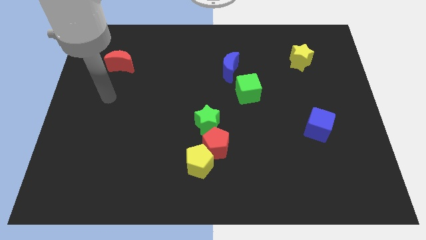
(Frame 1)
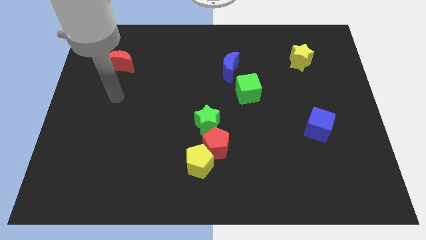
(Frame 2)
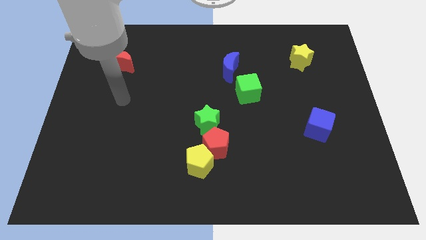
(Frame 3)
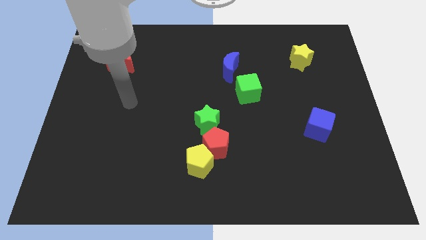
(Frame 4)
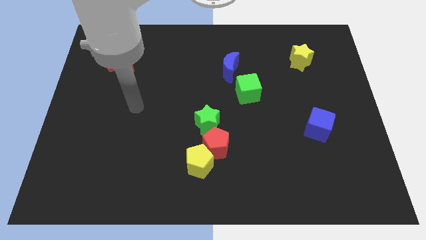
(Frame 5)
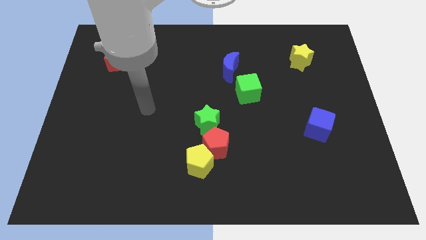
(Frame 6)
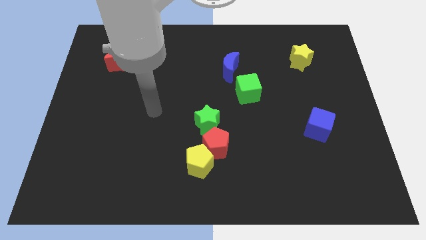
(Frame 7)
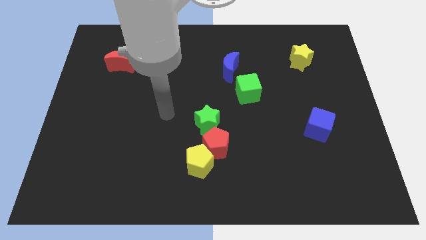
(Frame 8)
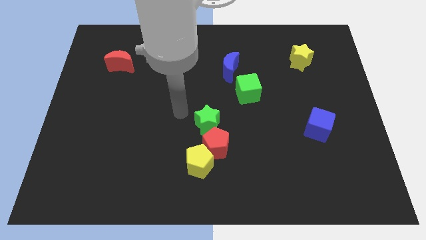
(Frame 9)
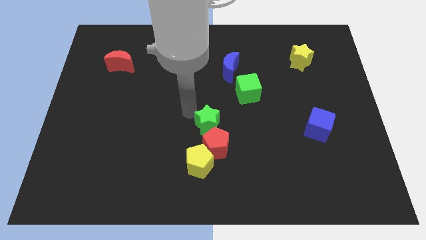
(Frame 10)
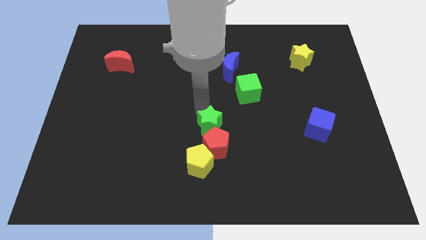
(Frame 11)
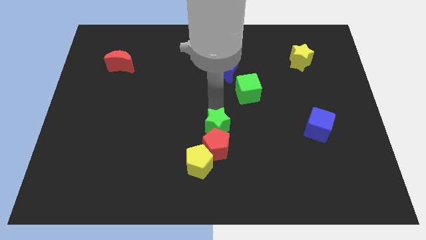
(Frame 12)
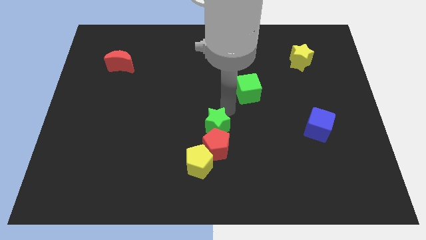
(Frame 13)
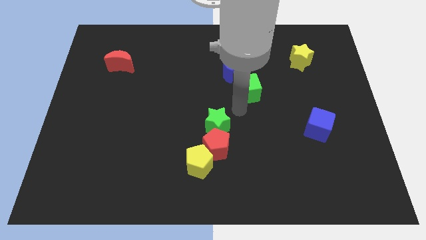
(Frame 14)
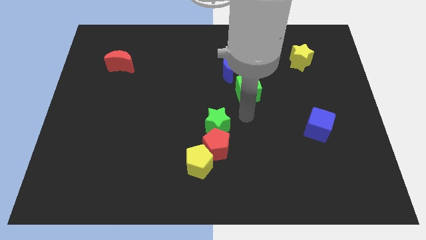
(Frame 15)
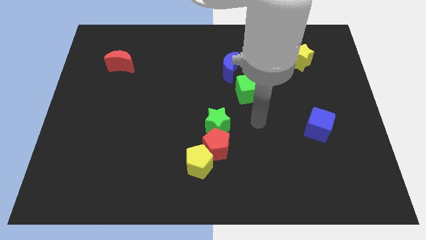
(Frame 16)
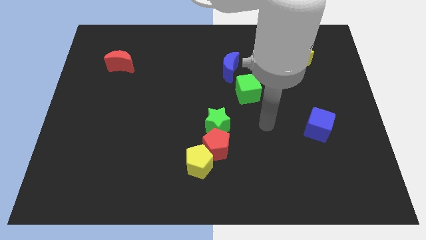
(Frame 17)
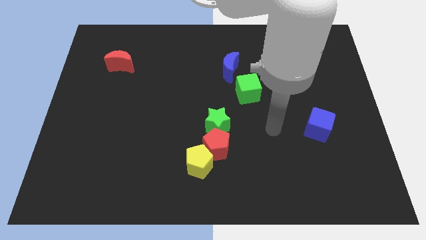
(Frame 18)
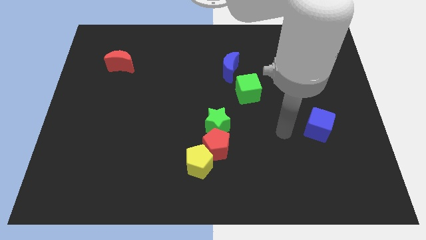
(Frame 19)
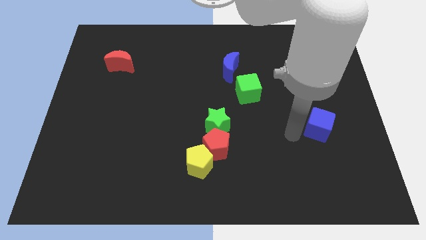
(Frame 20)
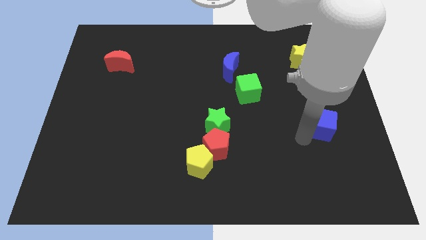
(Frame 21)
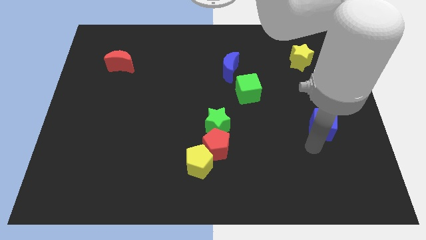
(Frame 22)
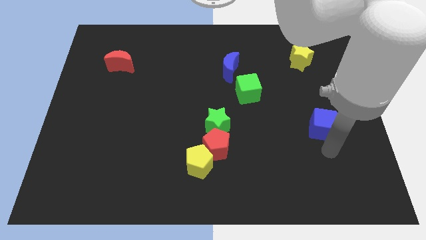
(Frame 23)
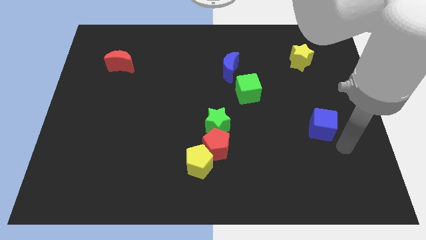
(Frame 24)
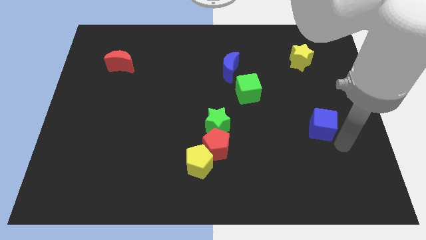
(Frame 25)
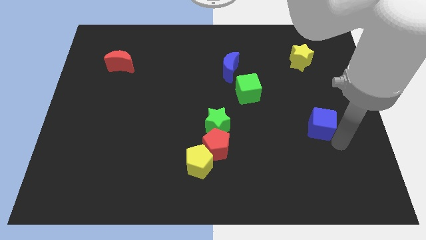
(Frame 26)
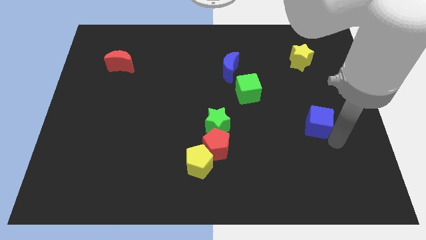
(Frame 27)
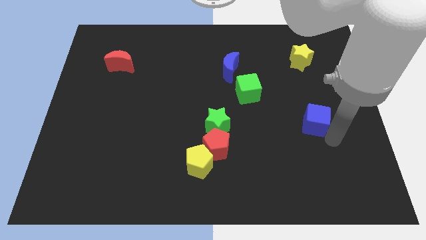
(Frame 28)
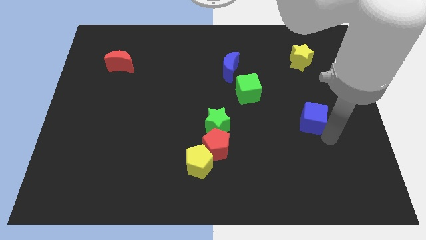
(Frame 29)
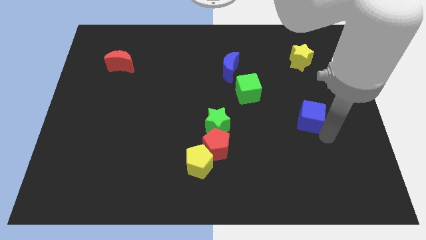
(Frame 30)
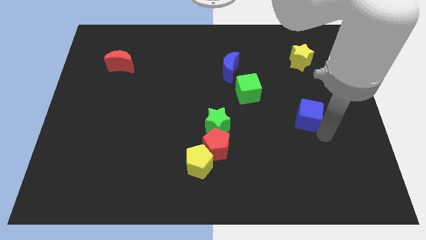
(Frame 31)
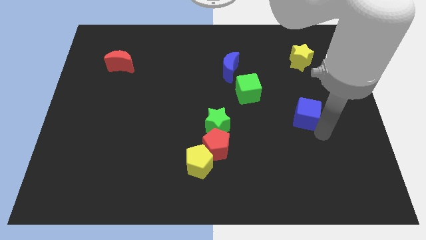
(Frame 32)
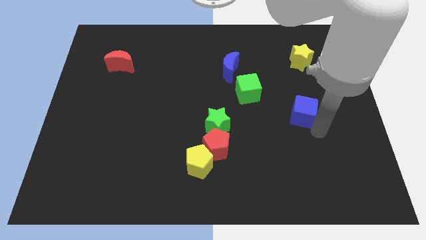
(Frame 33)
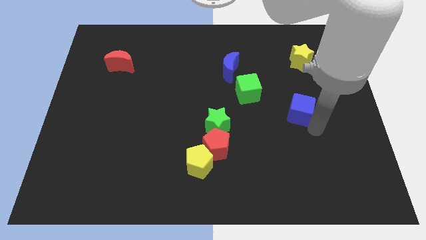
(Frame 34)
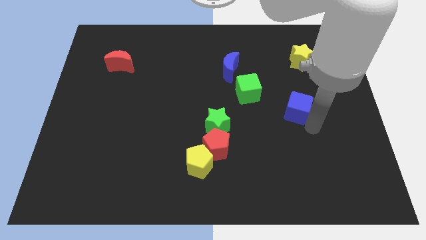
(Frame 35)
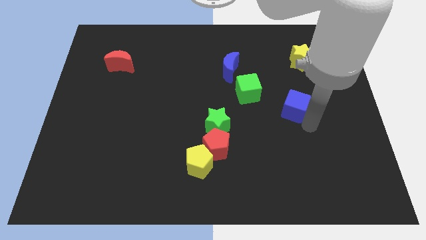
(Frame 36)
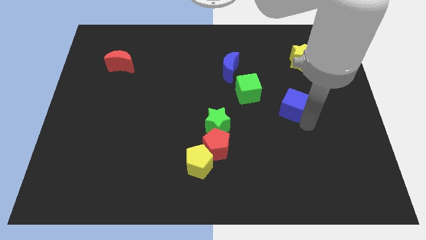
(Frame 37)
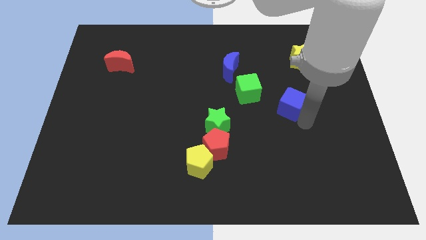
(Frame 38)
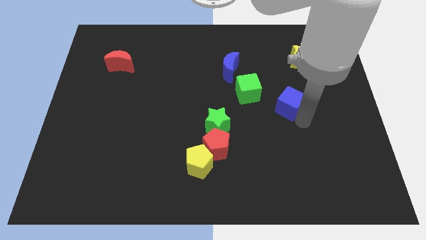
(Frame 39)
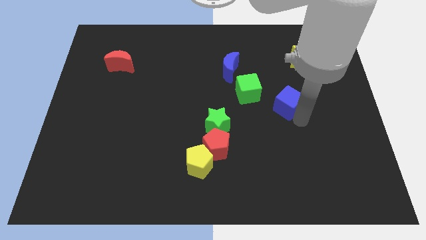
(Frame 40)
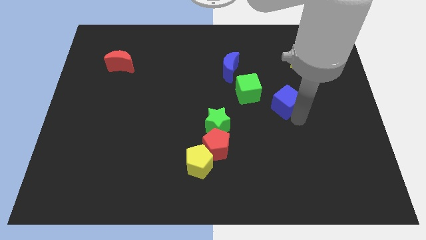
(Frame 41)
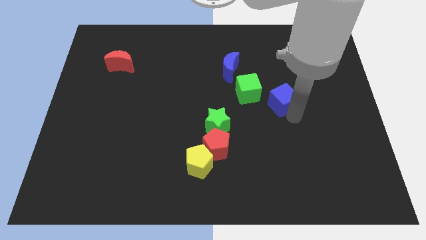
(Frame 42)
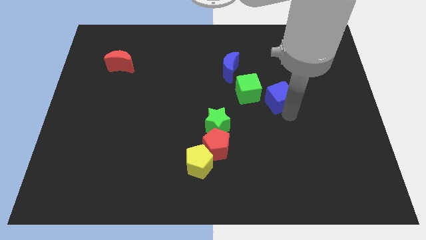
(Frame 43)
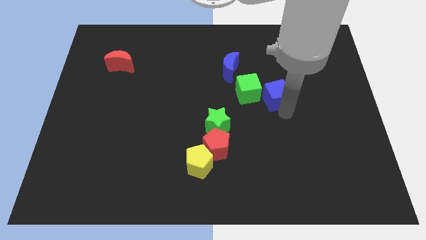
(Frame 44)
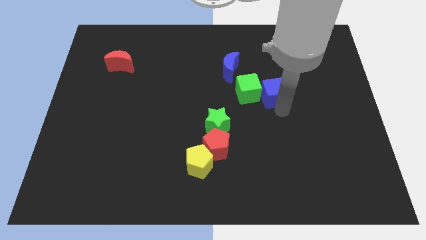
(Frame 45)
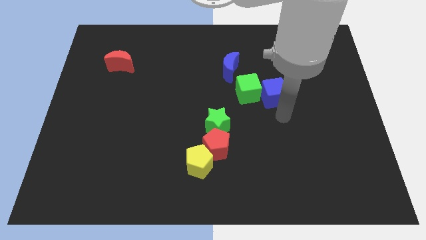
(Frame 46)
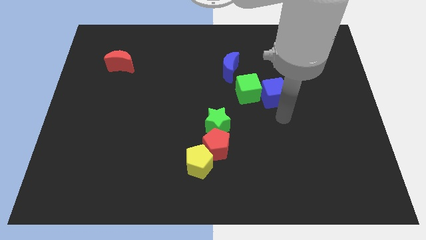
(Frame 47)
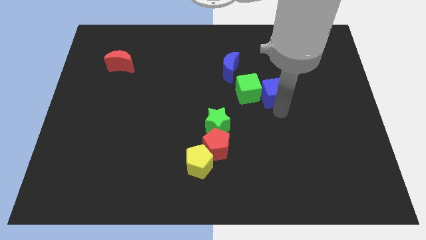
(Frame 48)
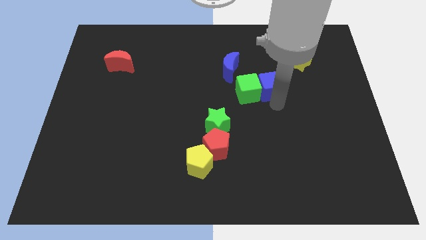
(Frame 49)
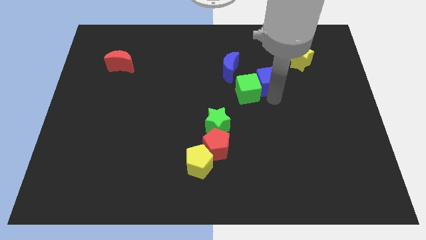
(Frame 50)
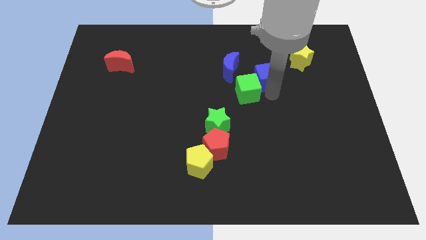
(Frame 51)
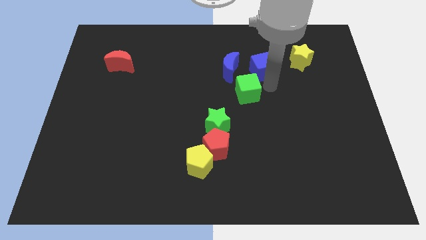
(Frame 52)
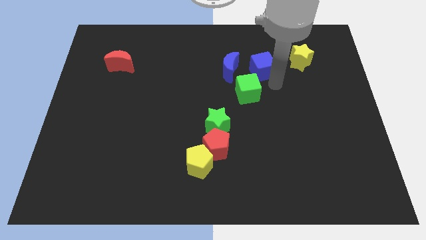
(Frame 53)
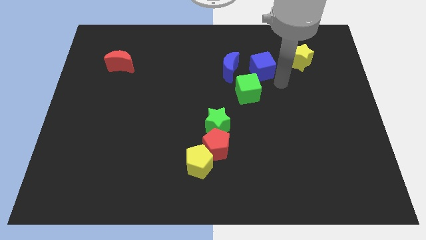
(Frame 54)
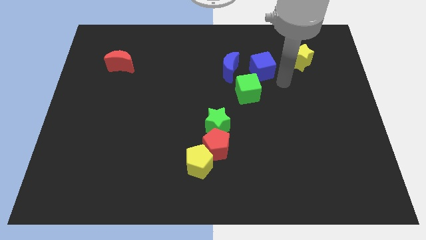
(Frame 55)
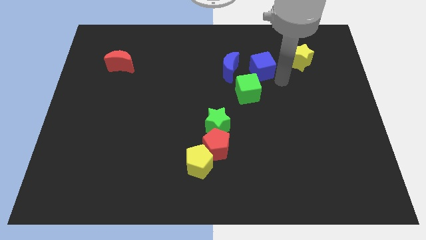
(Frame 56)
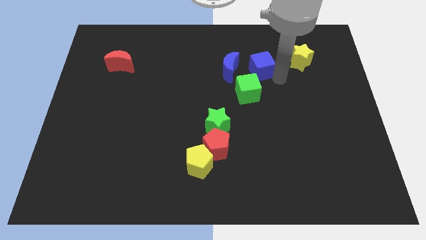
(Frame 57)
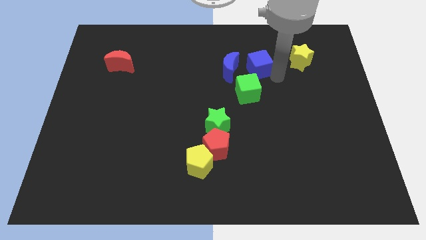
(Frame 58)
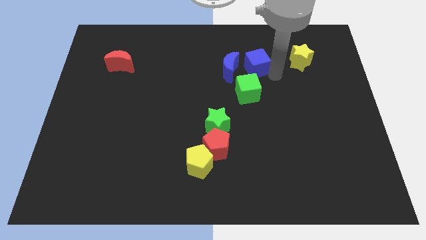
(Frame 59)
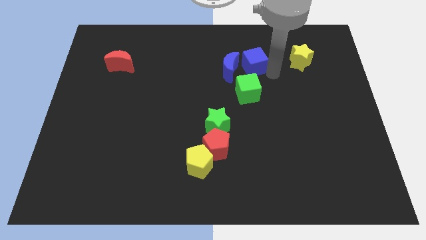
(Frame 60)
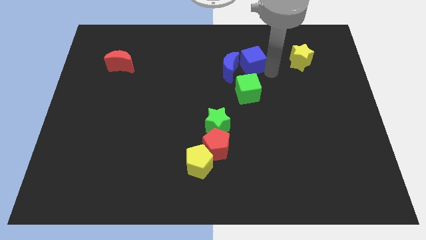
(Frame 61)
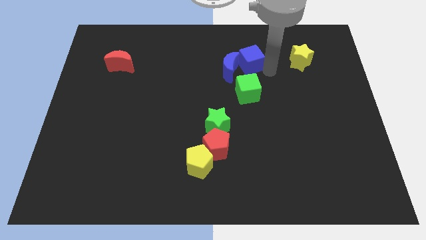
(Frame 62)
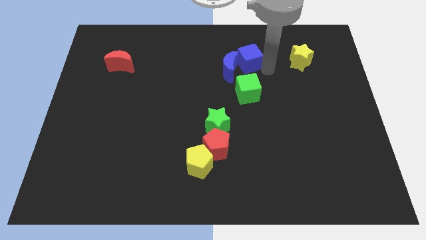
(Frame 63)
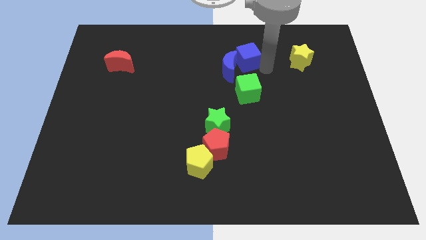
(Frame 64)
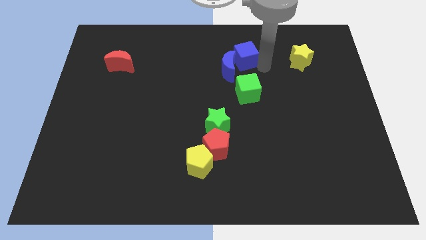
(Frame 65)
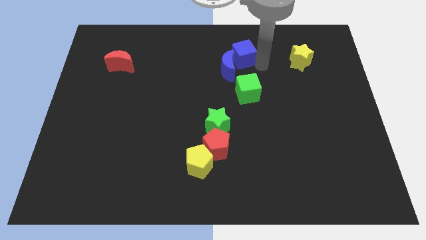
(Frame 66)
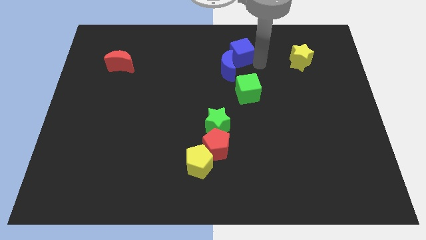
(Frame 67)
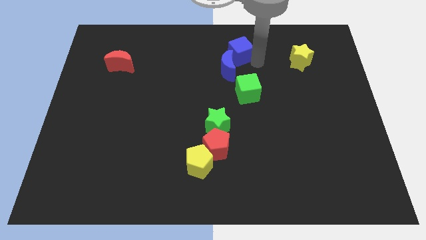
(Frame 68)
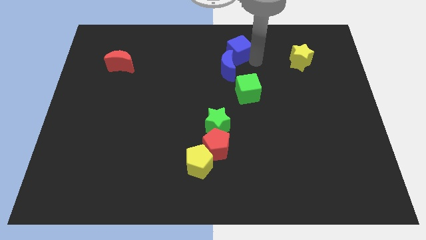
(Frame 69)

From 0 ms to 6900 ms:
put the blue cube to the top
